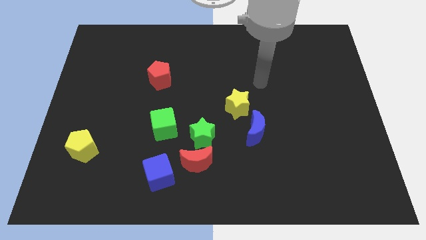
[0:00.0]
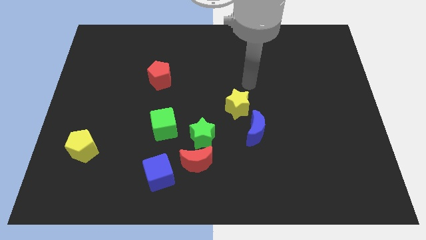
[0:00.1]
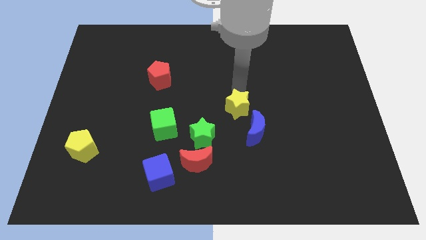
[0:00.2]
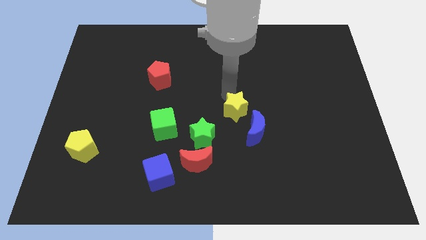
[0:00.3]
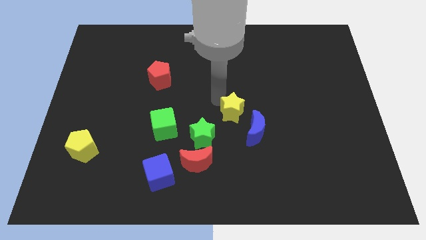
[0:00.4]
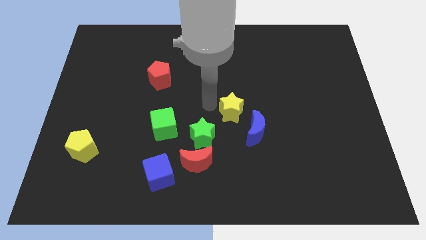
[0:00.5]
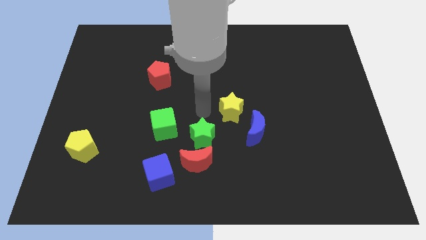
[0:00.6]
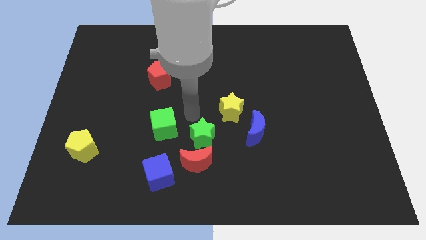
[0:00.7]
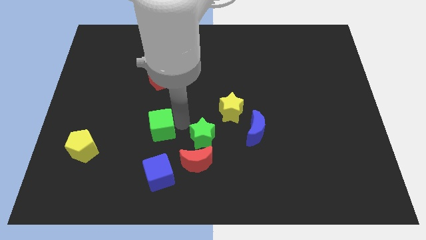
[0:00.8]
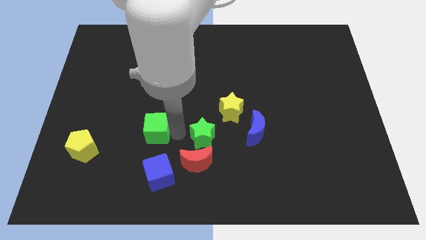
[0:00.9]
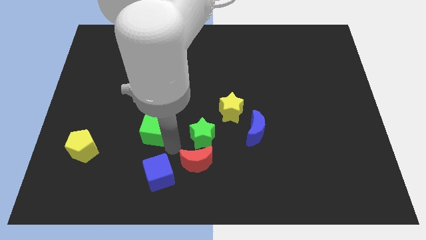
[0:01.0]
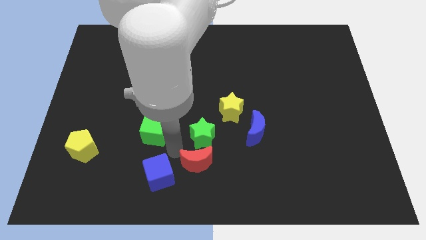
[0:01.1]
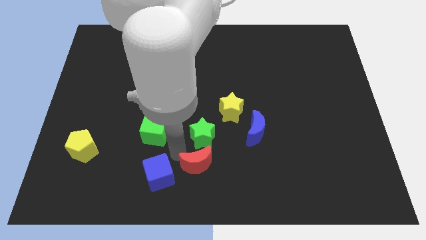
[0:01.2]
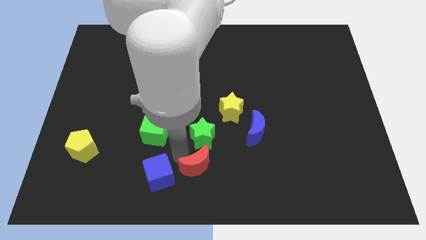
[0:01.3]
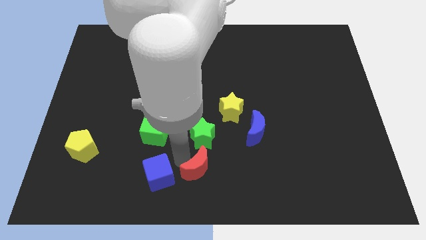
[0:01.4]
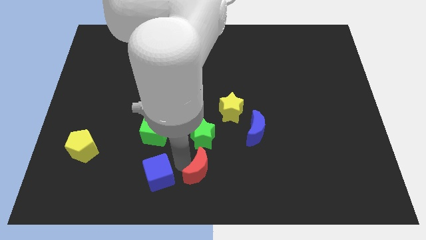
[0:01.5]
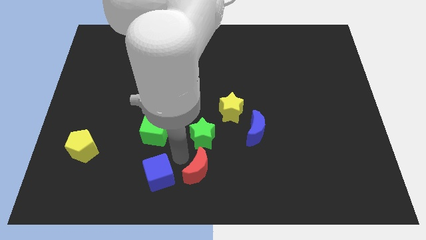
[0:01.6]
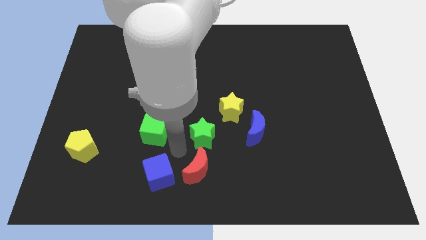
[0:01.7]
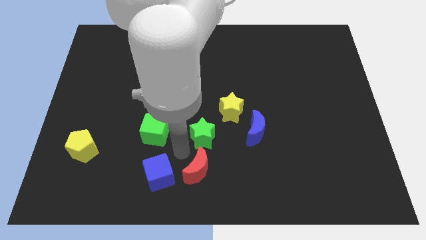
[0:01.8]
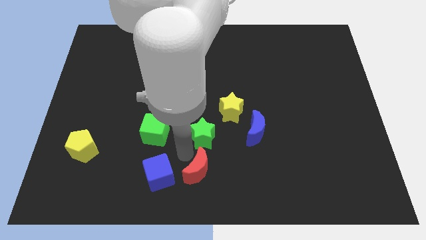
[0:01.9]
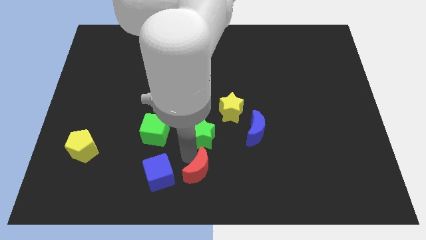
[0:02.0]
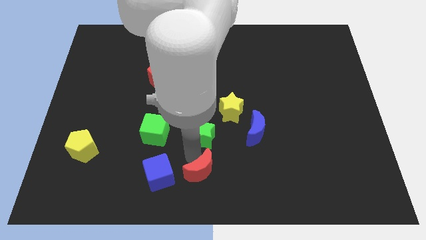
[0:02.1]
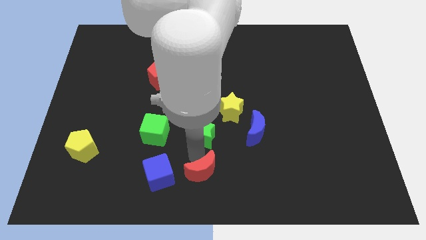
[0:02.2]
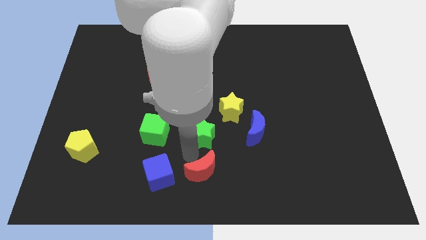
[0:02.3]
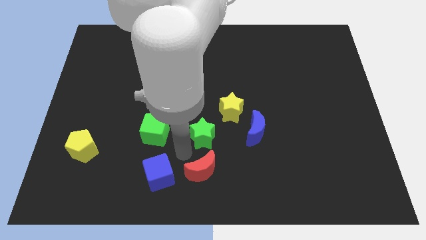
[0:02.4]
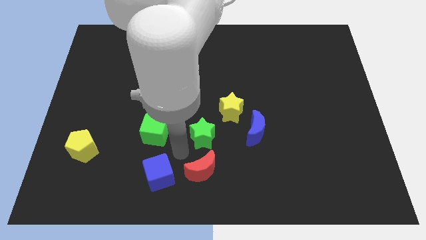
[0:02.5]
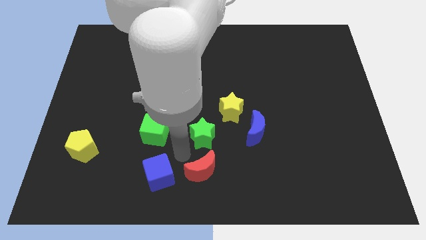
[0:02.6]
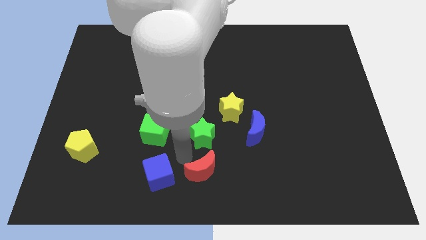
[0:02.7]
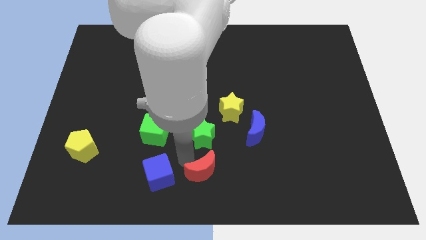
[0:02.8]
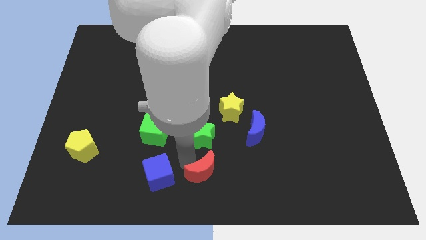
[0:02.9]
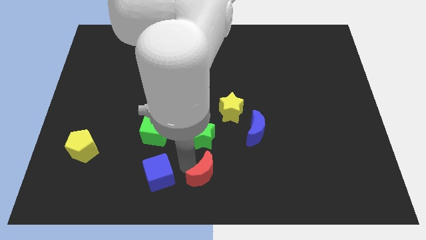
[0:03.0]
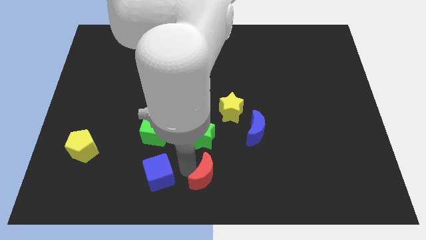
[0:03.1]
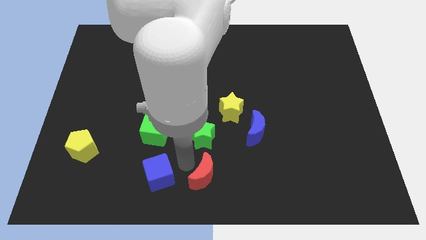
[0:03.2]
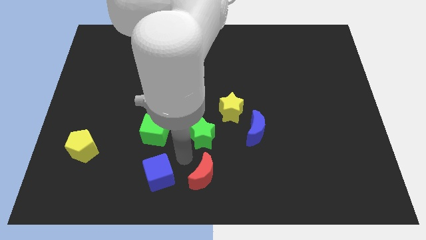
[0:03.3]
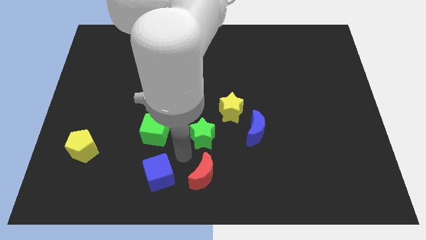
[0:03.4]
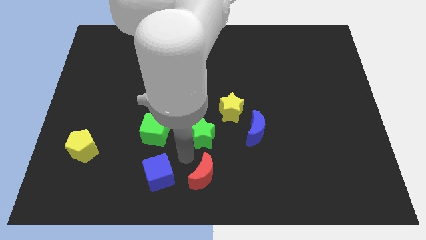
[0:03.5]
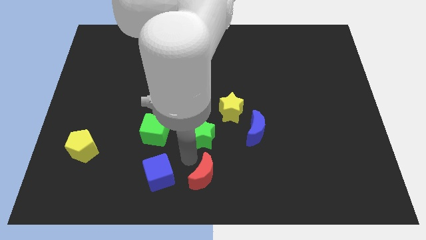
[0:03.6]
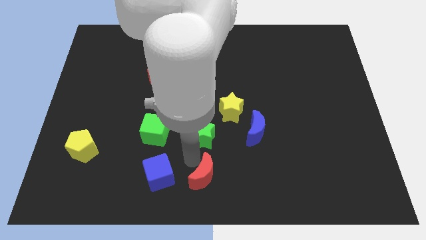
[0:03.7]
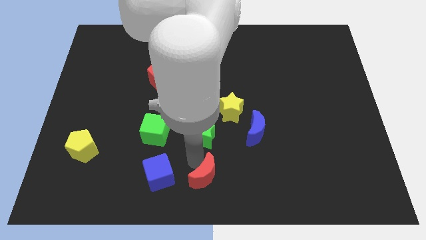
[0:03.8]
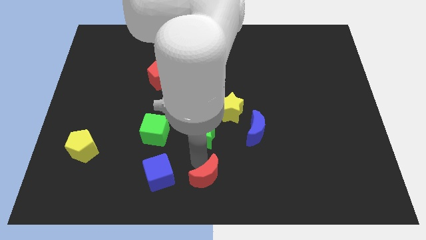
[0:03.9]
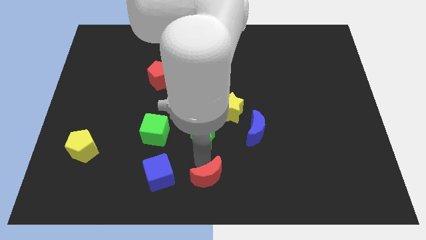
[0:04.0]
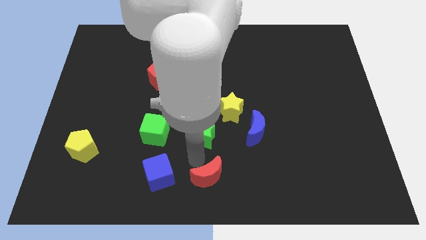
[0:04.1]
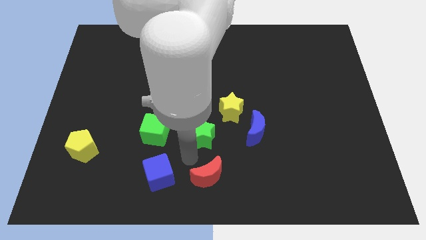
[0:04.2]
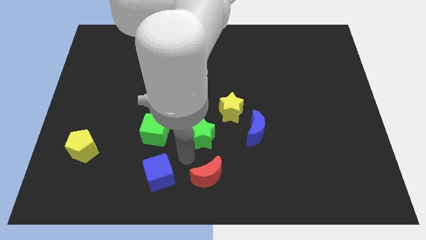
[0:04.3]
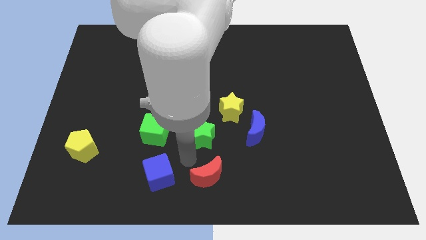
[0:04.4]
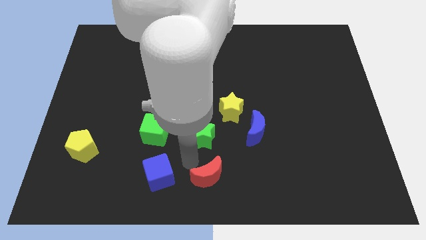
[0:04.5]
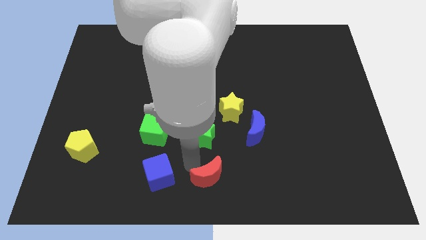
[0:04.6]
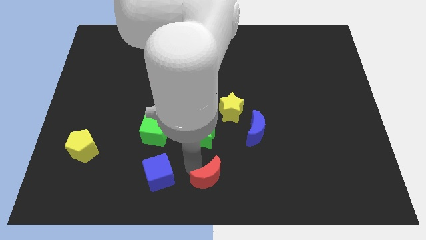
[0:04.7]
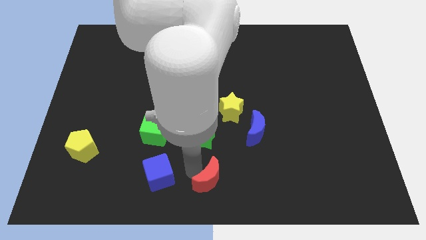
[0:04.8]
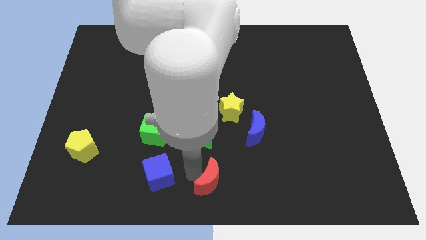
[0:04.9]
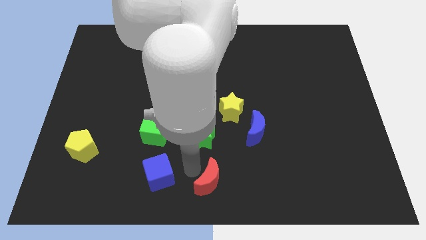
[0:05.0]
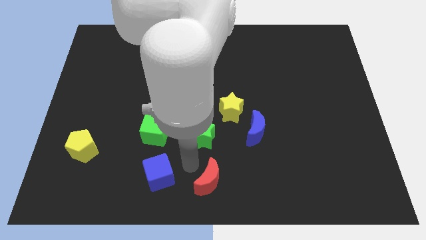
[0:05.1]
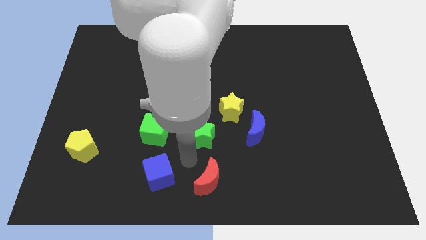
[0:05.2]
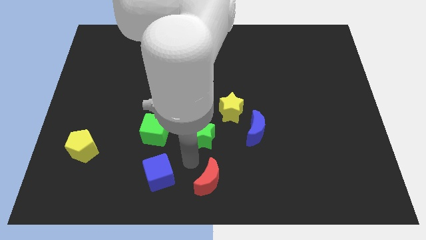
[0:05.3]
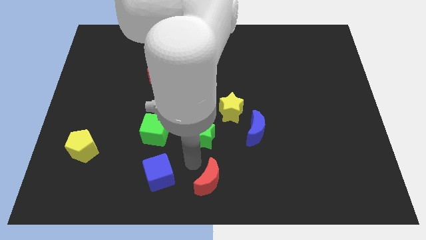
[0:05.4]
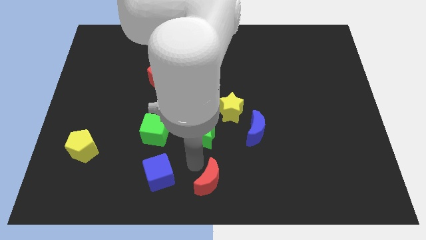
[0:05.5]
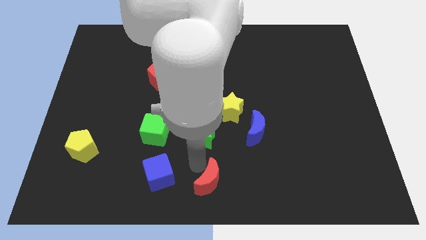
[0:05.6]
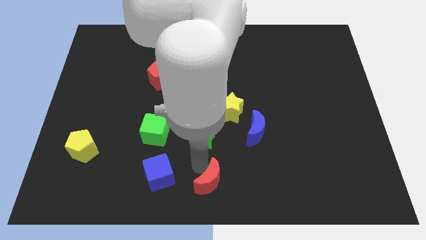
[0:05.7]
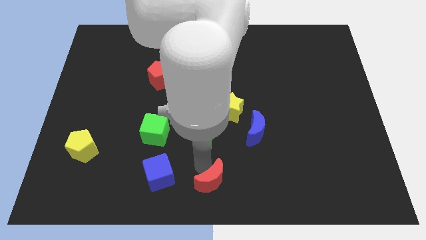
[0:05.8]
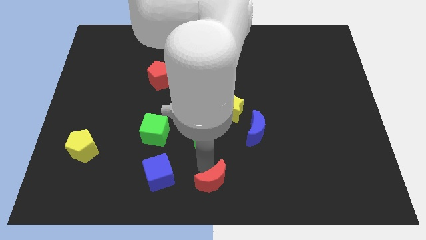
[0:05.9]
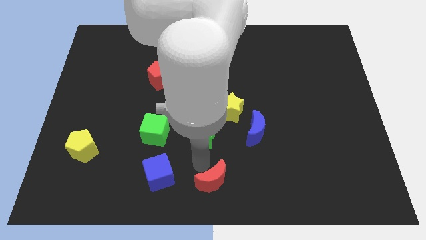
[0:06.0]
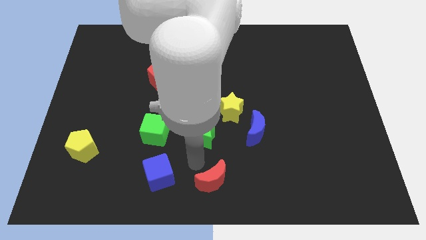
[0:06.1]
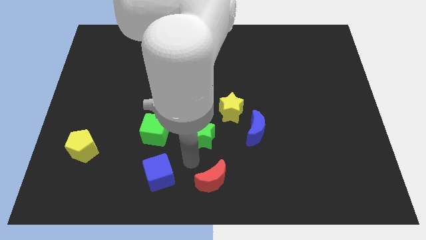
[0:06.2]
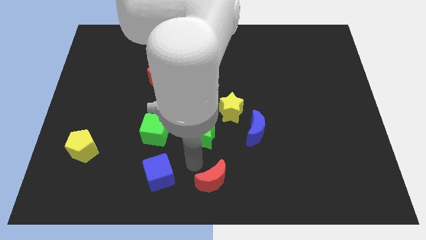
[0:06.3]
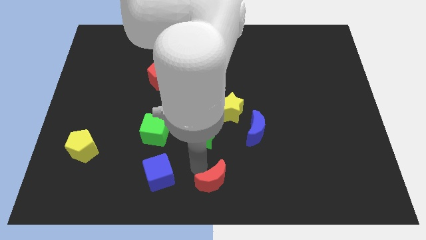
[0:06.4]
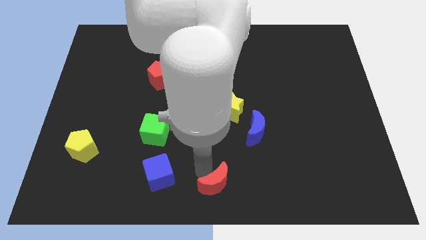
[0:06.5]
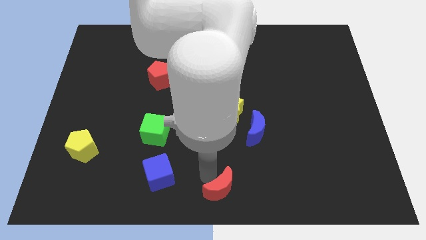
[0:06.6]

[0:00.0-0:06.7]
separate the red moon from the green star and blue cube

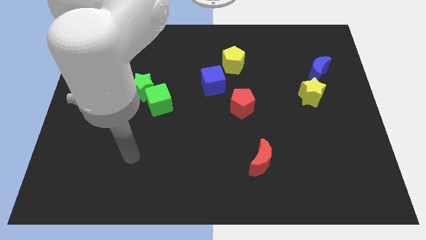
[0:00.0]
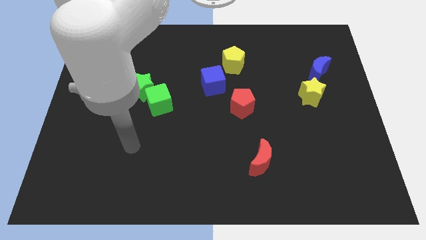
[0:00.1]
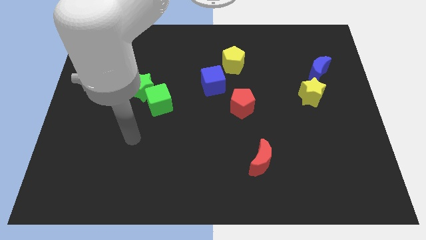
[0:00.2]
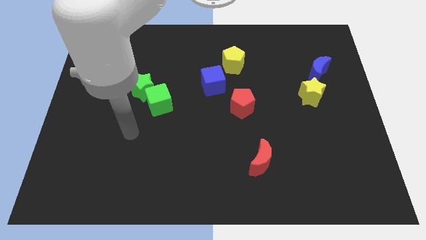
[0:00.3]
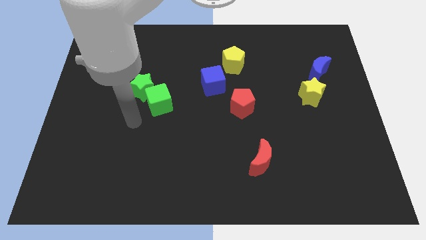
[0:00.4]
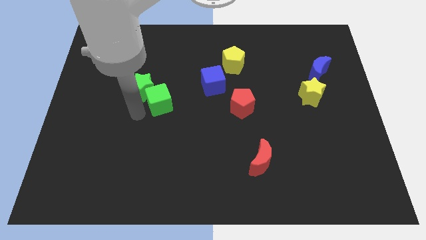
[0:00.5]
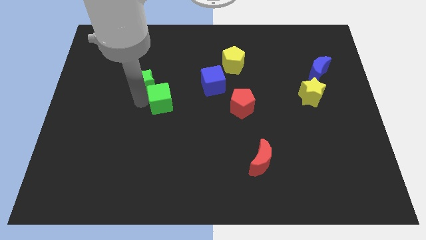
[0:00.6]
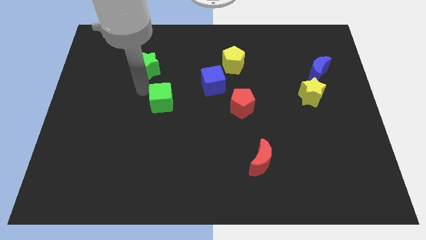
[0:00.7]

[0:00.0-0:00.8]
separate the green cube from the green star

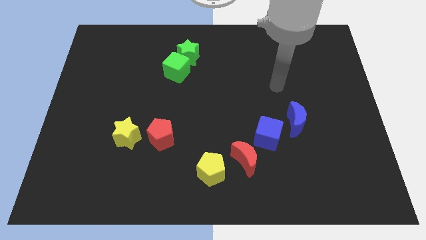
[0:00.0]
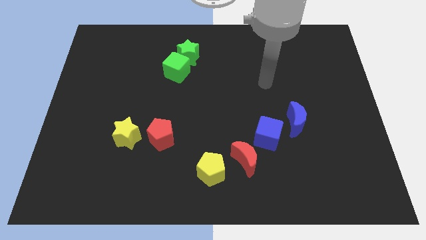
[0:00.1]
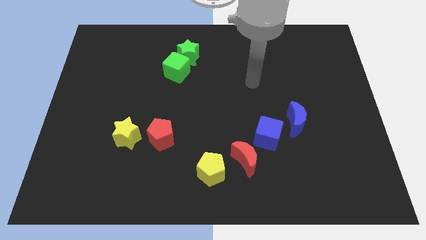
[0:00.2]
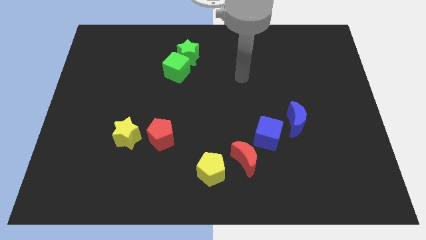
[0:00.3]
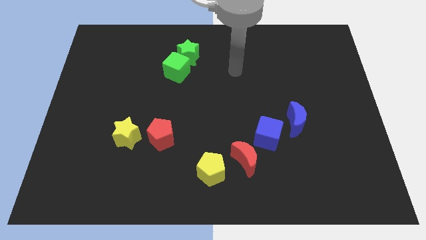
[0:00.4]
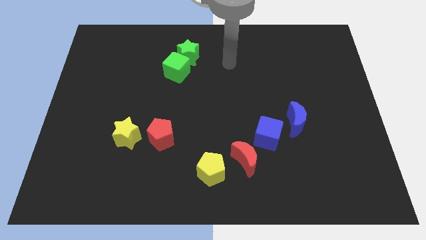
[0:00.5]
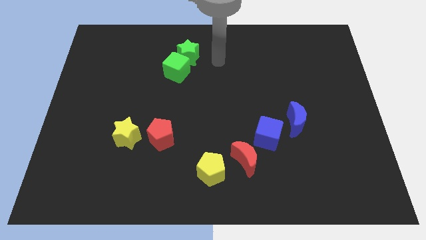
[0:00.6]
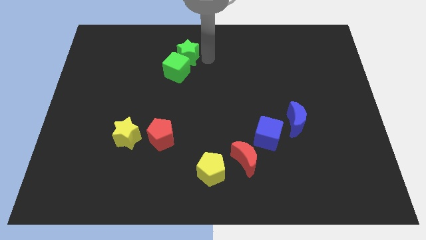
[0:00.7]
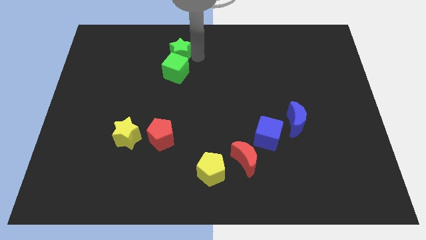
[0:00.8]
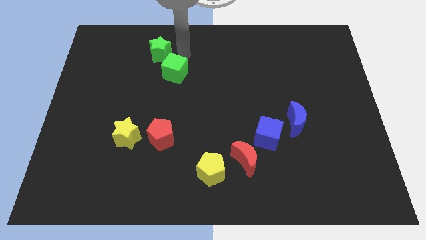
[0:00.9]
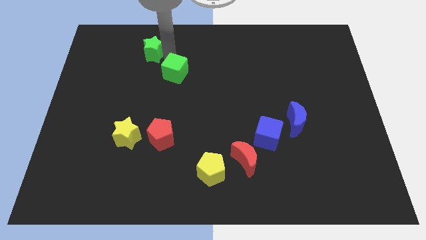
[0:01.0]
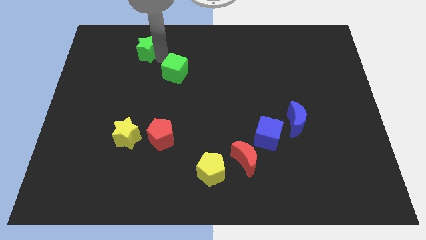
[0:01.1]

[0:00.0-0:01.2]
pull the green cube apart from the green star

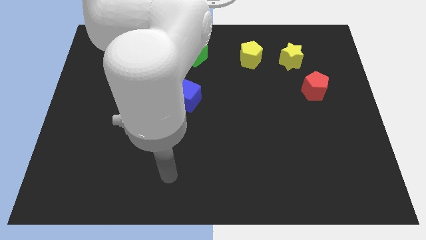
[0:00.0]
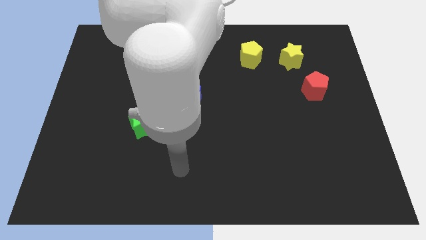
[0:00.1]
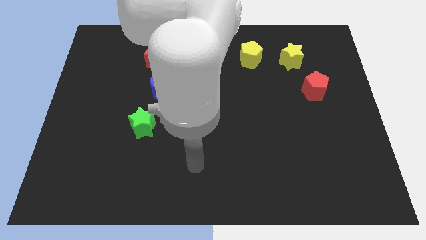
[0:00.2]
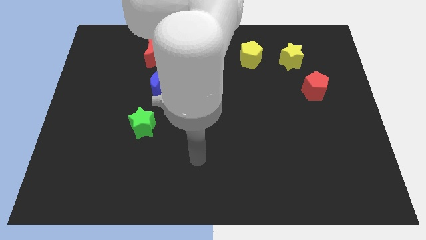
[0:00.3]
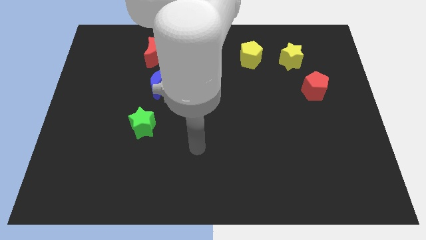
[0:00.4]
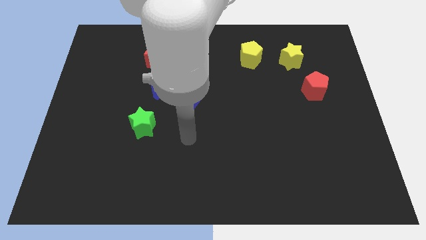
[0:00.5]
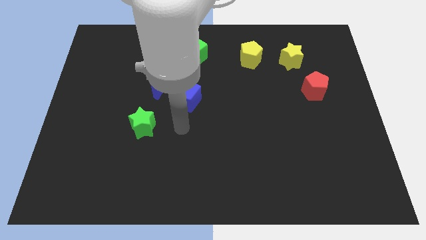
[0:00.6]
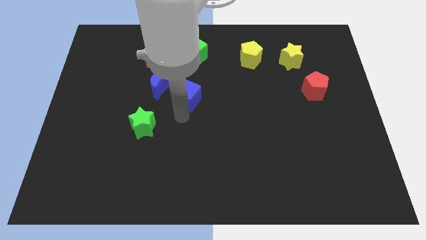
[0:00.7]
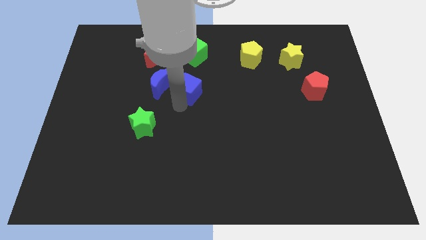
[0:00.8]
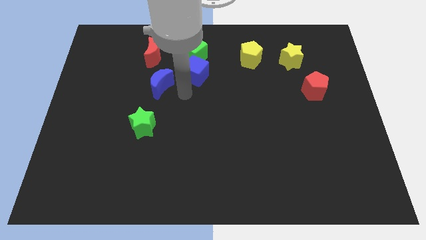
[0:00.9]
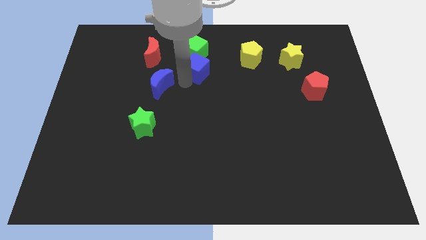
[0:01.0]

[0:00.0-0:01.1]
separate the blue moon from the blue cube
